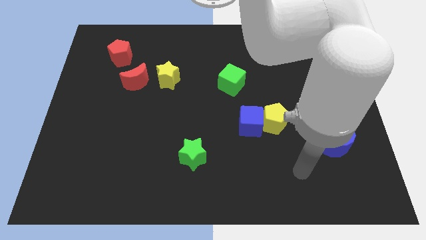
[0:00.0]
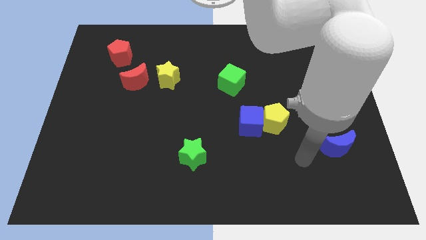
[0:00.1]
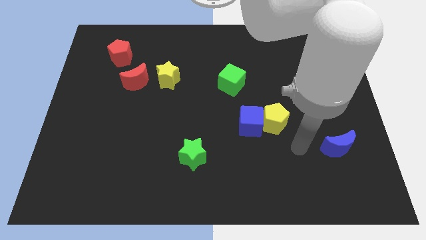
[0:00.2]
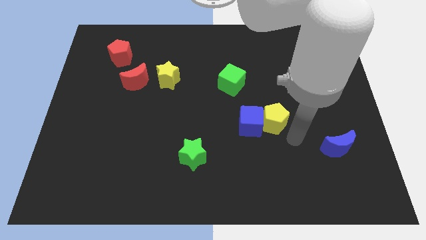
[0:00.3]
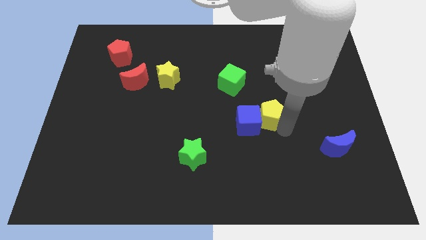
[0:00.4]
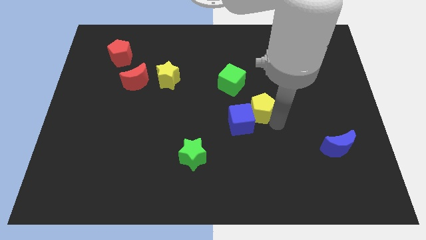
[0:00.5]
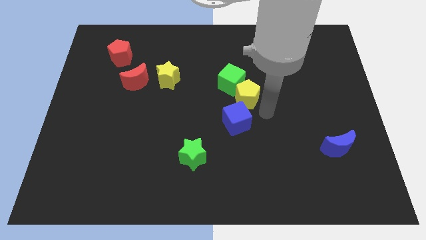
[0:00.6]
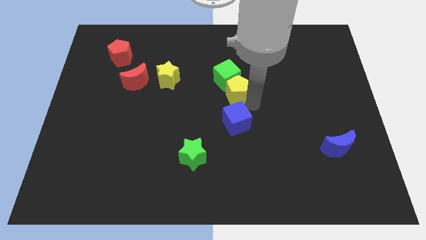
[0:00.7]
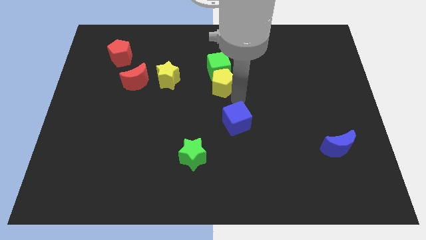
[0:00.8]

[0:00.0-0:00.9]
pull the blue cube apart from the yellow pentagon

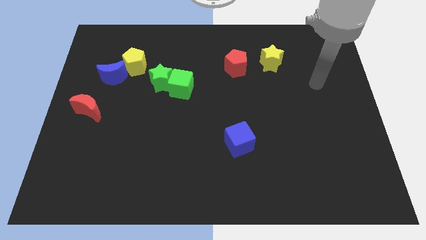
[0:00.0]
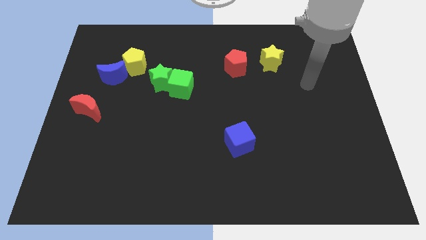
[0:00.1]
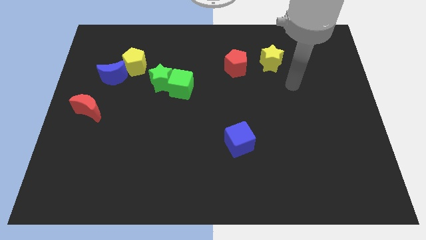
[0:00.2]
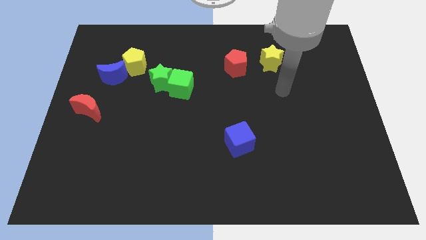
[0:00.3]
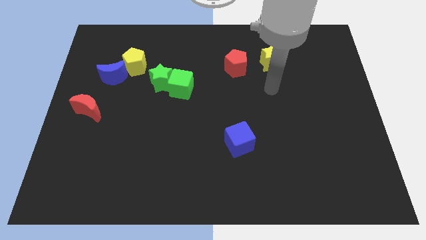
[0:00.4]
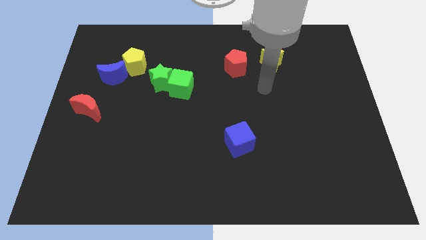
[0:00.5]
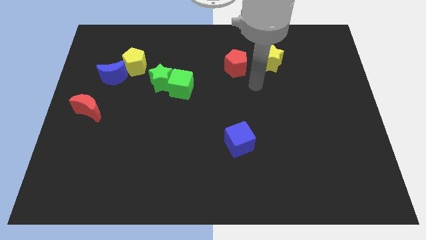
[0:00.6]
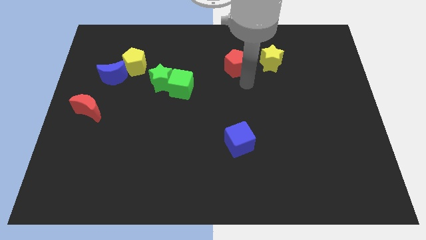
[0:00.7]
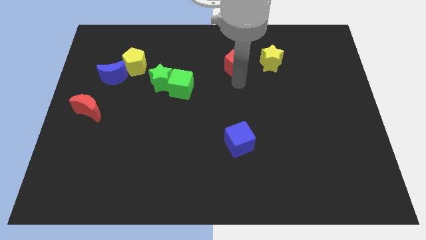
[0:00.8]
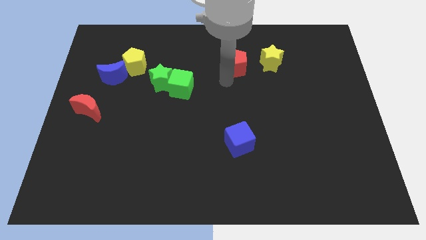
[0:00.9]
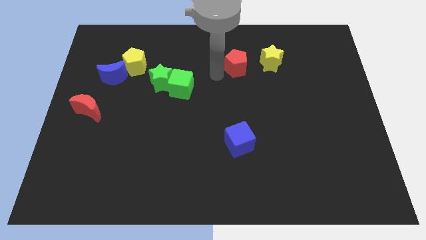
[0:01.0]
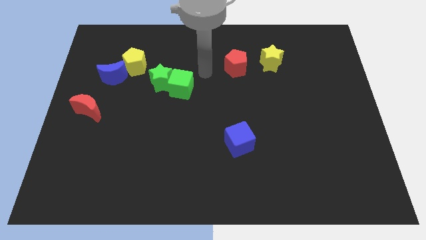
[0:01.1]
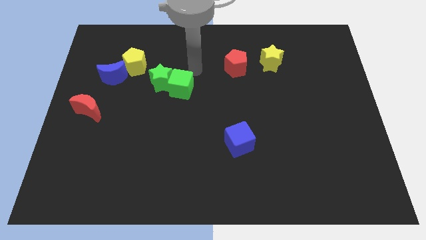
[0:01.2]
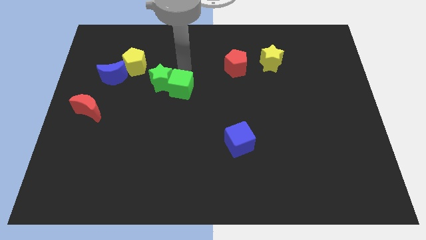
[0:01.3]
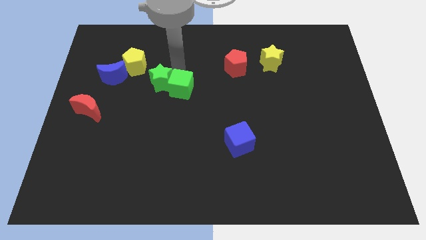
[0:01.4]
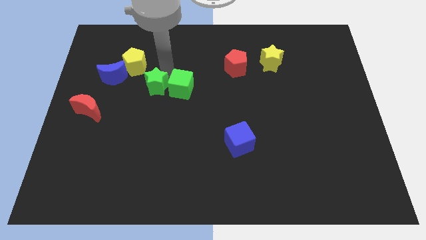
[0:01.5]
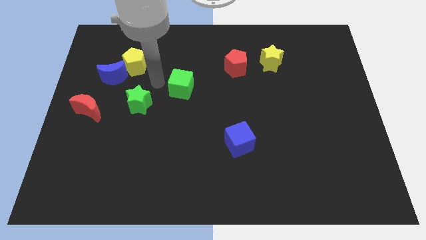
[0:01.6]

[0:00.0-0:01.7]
pull the green cube apart from the green star

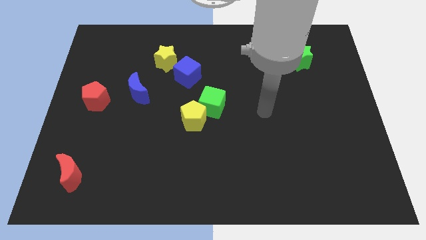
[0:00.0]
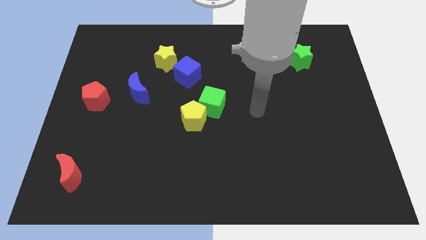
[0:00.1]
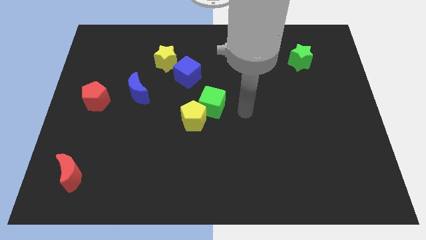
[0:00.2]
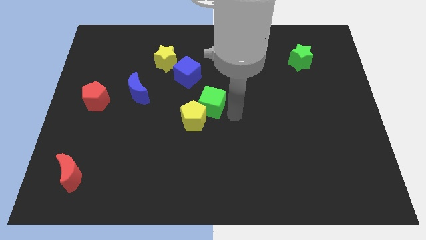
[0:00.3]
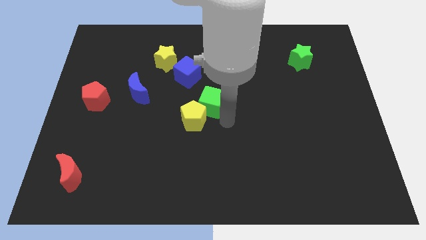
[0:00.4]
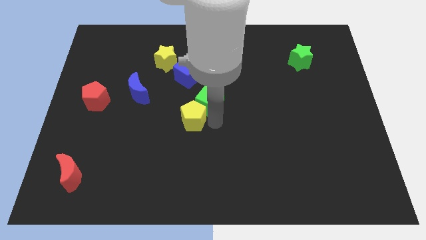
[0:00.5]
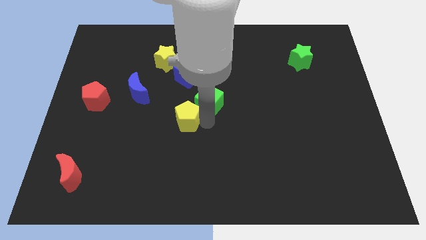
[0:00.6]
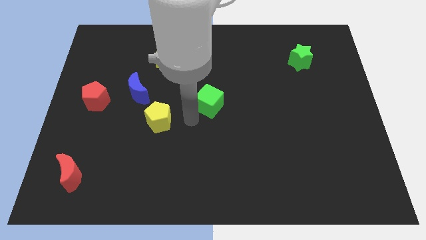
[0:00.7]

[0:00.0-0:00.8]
move the green cube away from the yellow pentagon

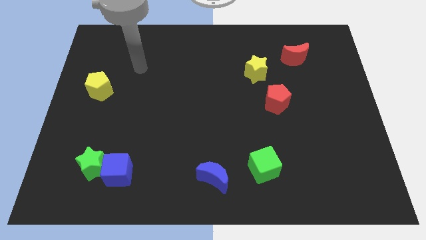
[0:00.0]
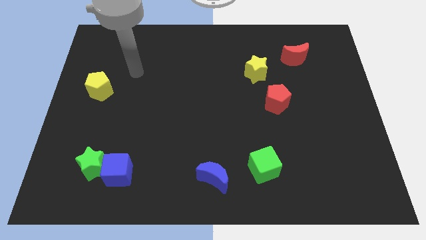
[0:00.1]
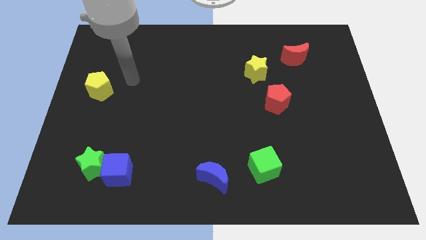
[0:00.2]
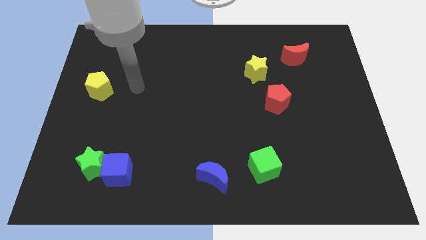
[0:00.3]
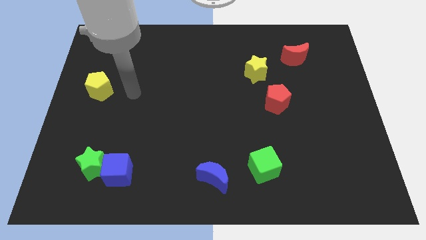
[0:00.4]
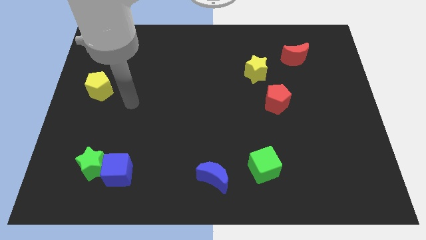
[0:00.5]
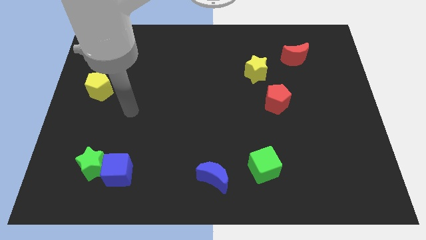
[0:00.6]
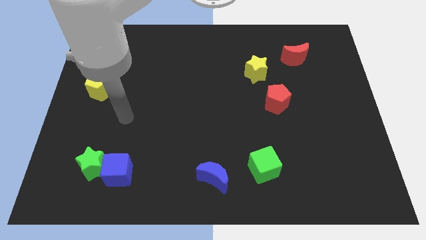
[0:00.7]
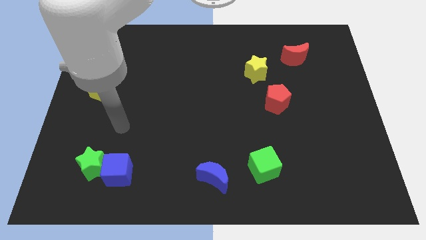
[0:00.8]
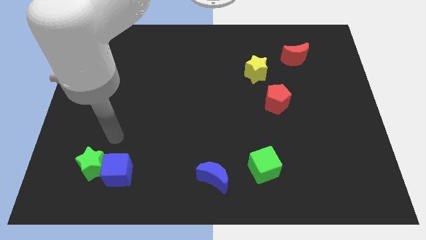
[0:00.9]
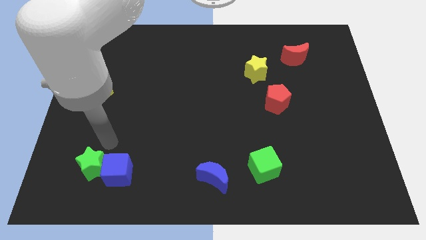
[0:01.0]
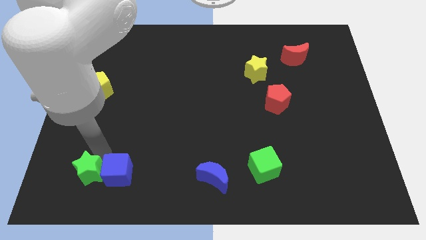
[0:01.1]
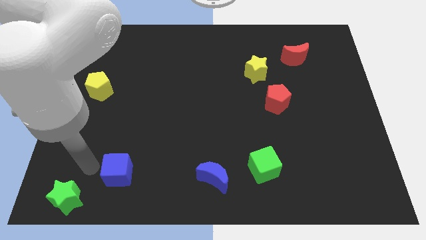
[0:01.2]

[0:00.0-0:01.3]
move the blue cube away from the green star

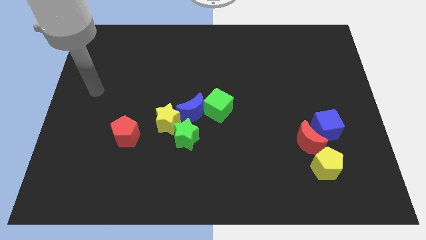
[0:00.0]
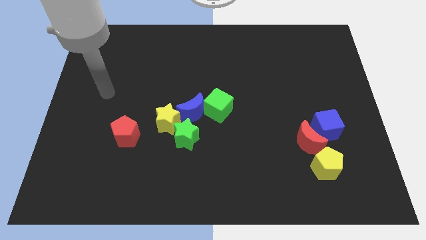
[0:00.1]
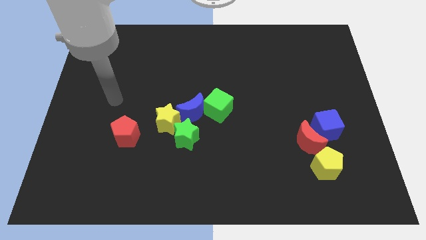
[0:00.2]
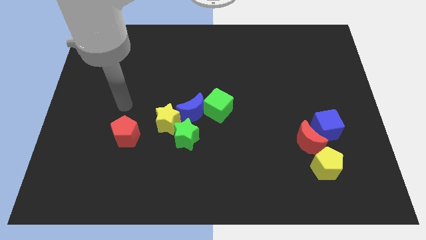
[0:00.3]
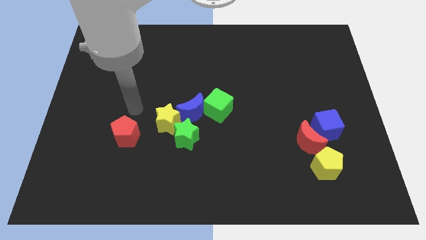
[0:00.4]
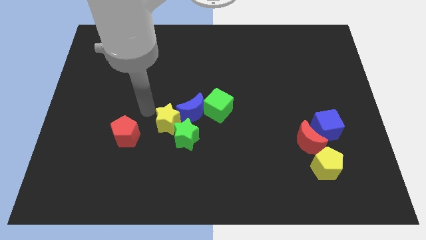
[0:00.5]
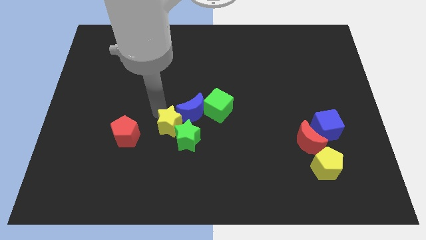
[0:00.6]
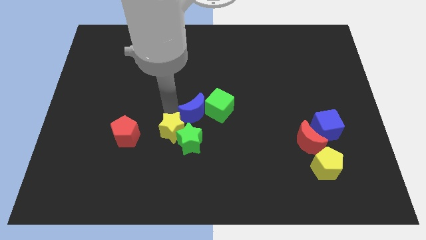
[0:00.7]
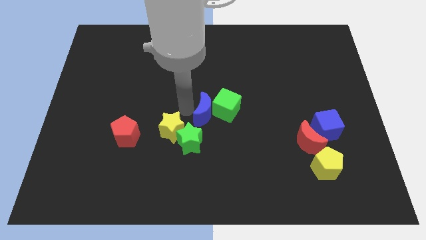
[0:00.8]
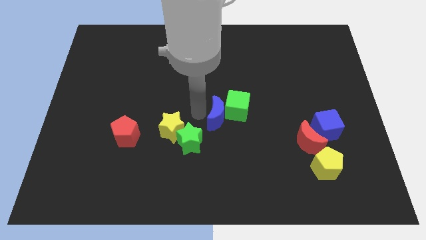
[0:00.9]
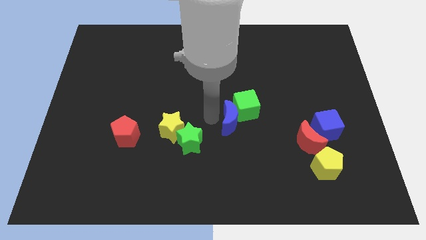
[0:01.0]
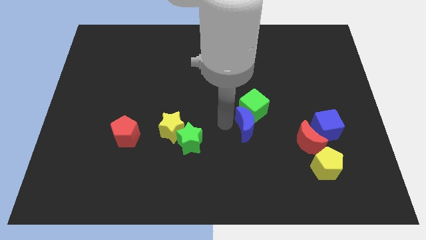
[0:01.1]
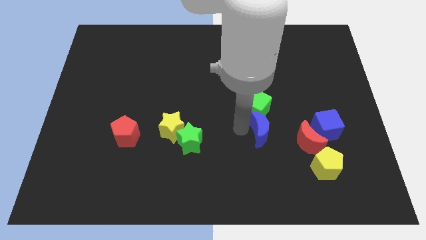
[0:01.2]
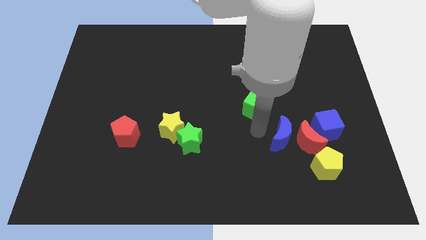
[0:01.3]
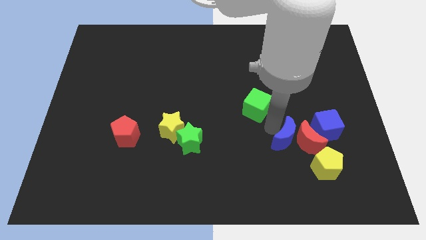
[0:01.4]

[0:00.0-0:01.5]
move the green cube away from the blue moon

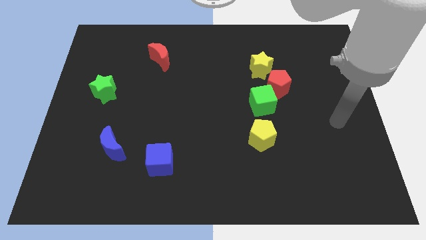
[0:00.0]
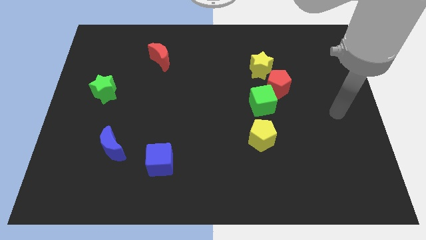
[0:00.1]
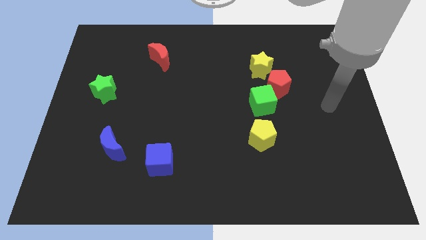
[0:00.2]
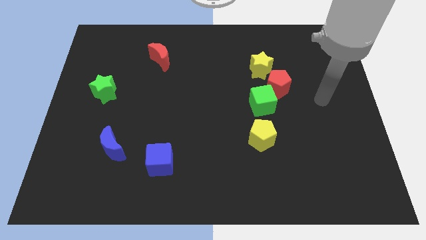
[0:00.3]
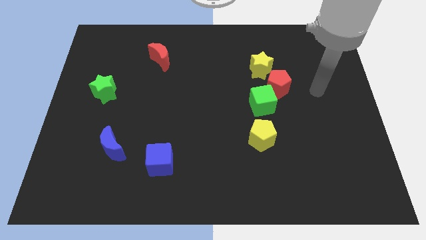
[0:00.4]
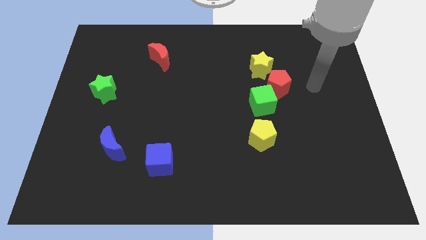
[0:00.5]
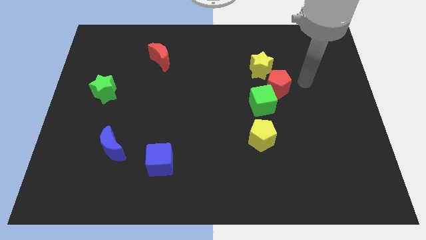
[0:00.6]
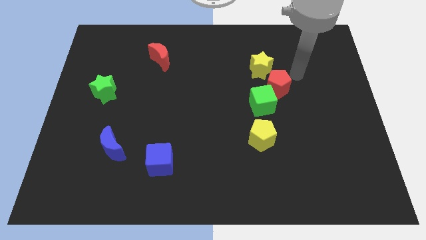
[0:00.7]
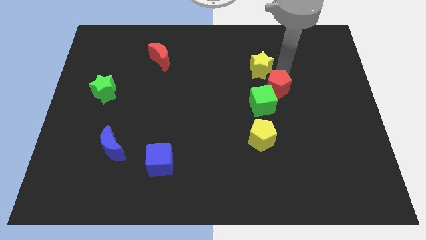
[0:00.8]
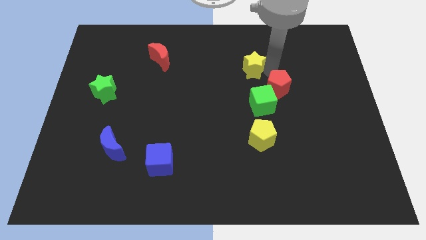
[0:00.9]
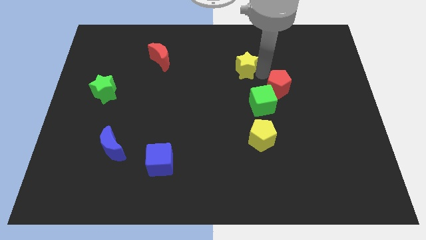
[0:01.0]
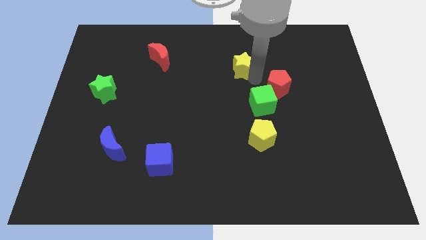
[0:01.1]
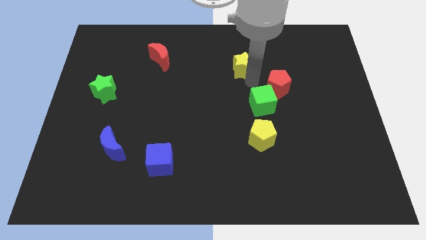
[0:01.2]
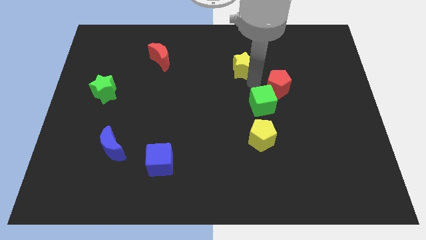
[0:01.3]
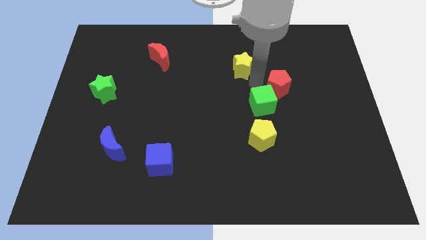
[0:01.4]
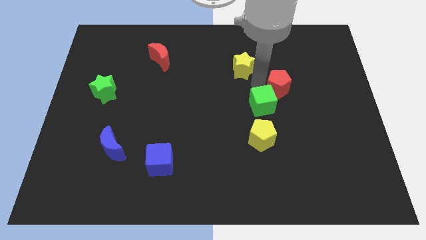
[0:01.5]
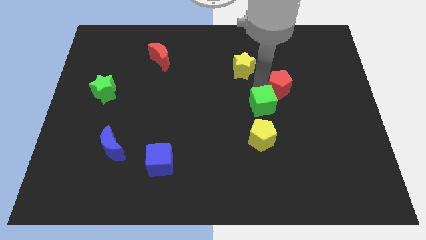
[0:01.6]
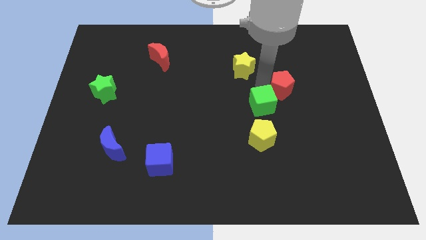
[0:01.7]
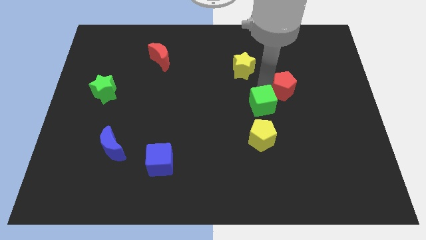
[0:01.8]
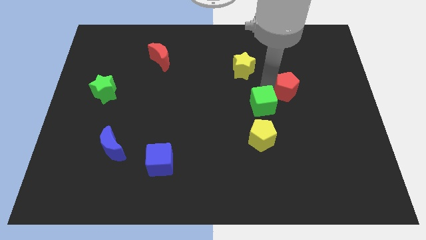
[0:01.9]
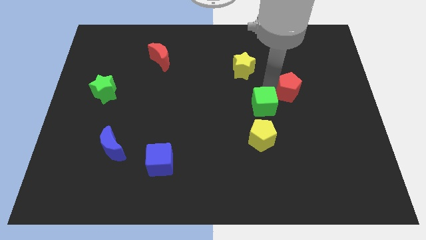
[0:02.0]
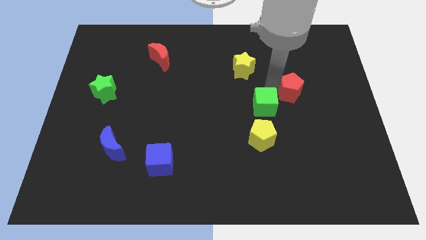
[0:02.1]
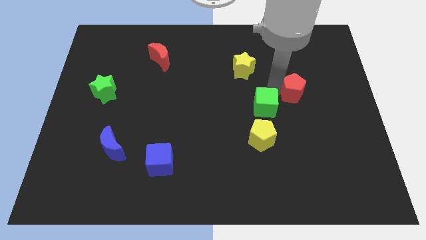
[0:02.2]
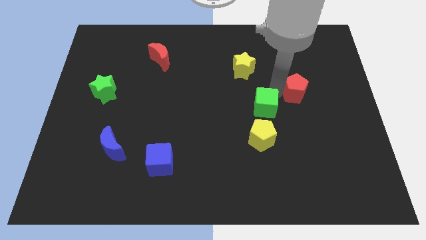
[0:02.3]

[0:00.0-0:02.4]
move the red pentagon away from the green cube and yellow star

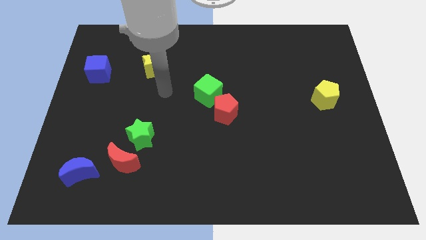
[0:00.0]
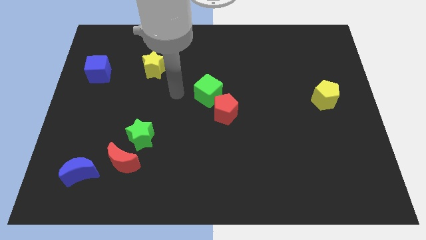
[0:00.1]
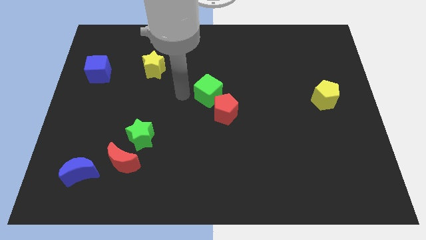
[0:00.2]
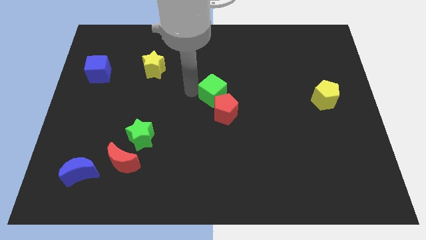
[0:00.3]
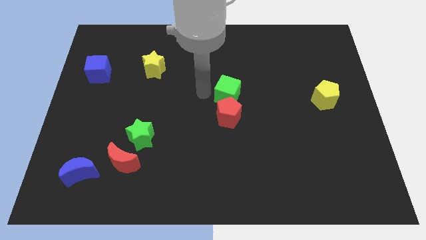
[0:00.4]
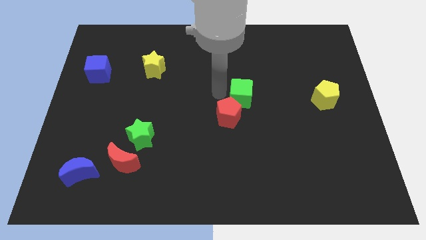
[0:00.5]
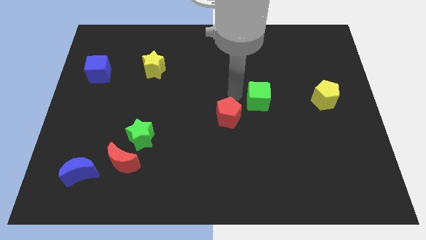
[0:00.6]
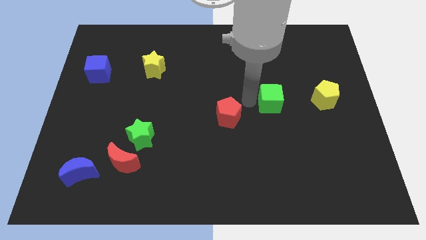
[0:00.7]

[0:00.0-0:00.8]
pull the red pentagon apart from the green cube
